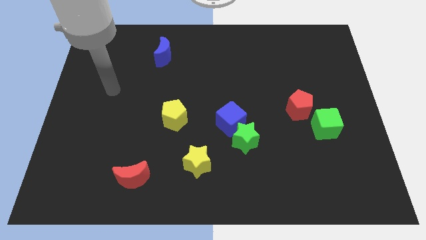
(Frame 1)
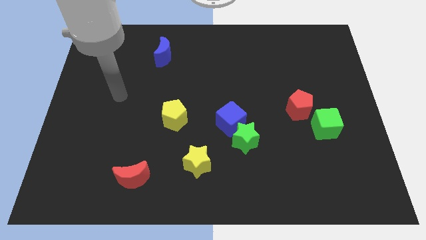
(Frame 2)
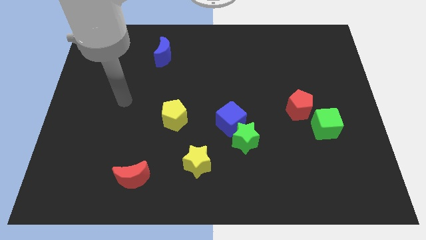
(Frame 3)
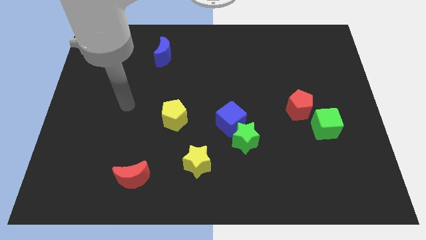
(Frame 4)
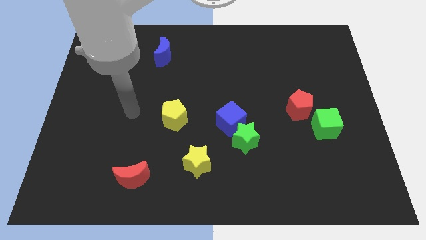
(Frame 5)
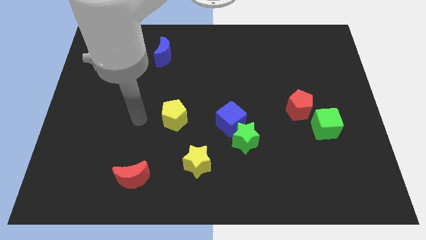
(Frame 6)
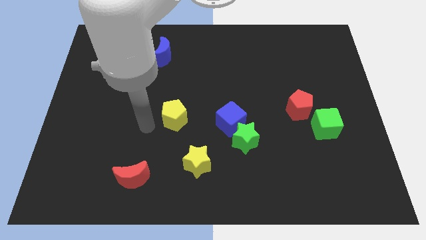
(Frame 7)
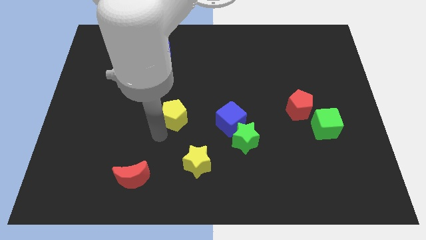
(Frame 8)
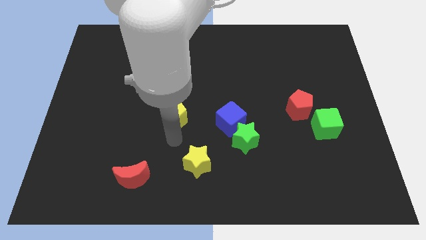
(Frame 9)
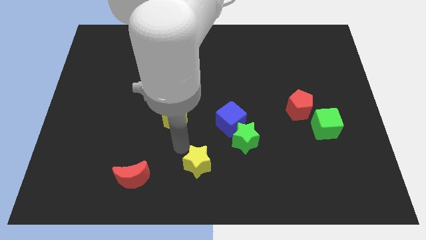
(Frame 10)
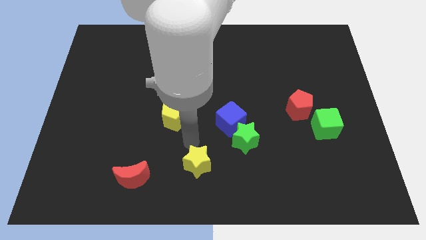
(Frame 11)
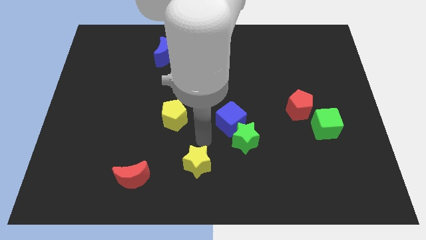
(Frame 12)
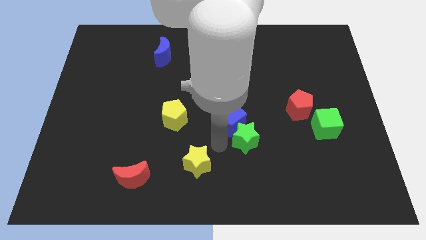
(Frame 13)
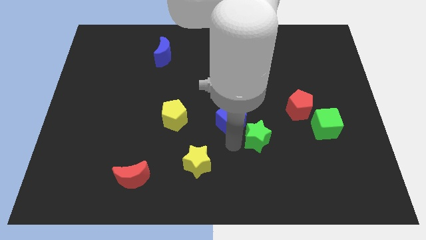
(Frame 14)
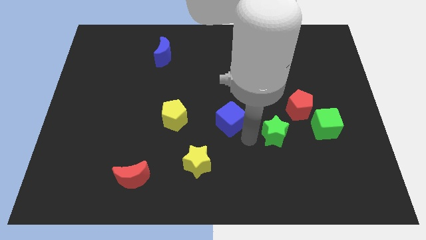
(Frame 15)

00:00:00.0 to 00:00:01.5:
pull the blue cube apart from the green star

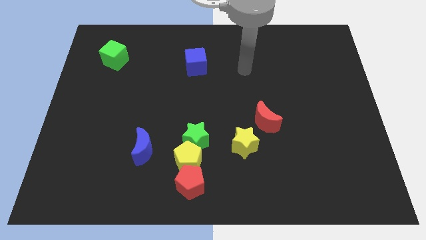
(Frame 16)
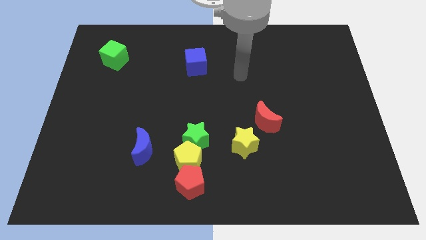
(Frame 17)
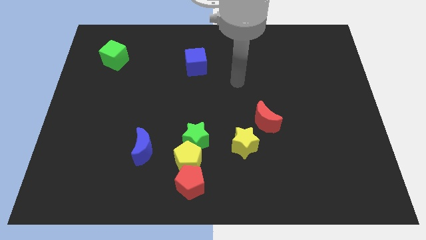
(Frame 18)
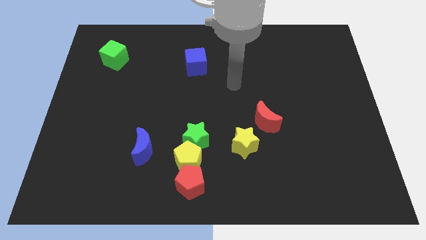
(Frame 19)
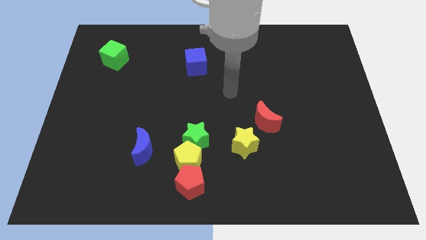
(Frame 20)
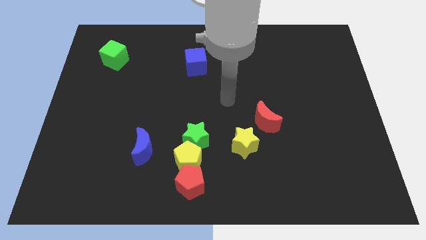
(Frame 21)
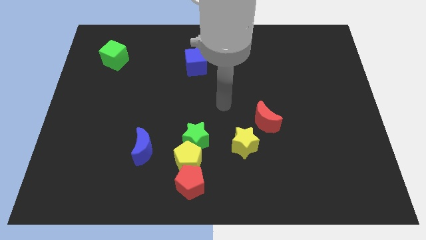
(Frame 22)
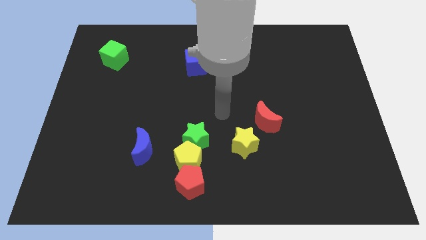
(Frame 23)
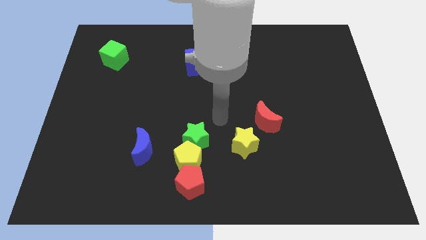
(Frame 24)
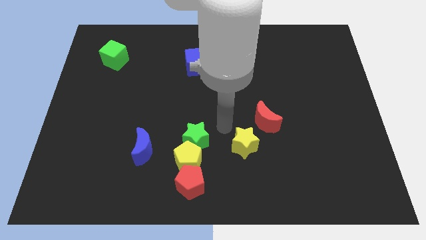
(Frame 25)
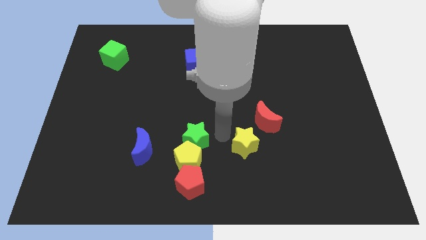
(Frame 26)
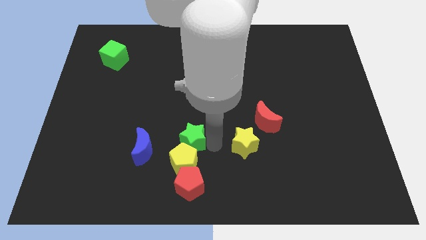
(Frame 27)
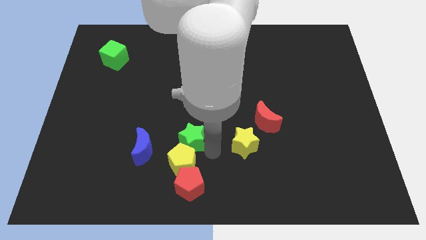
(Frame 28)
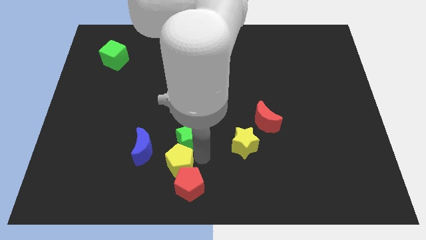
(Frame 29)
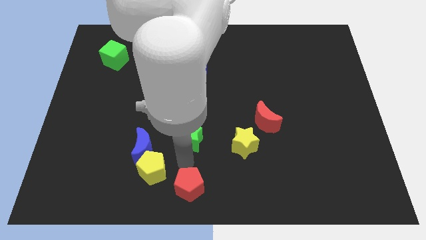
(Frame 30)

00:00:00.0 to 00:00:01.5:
pull the green star apart from the yellow pentagon

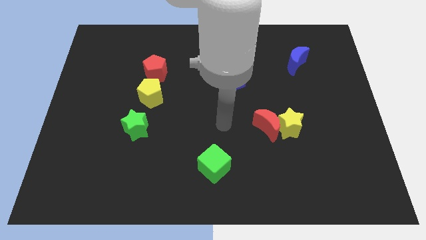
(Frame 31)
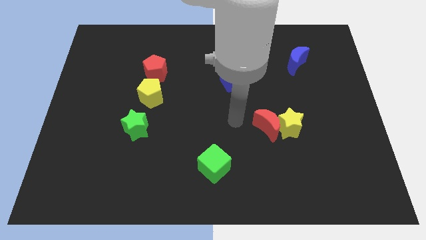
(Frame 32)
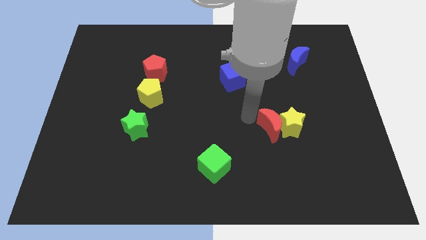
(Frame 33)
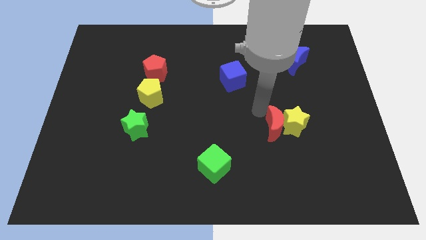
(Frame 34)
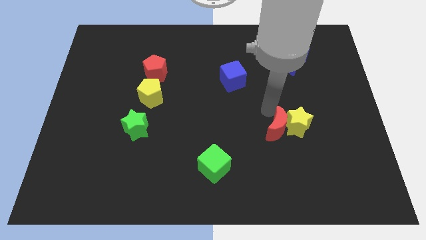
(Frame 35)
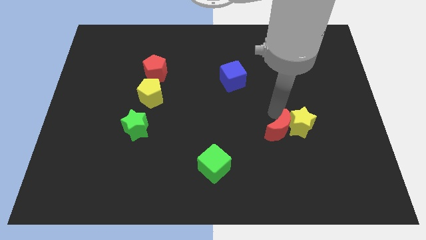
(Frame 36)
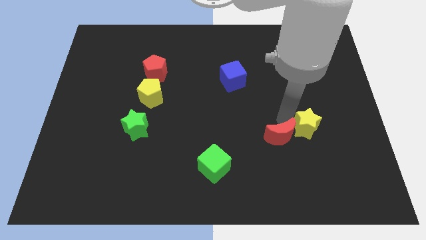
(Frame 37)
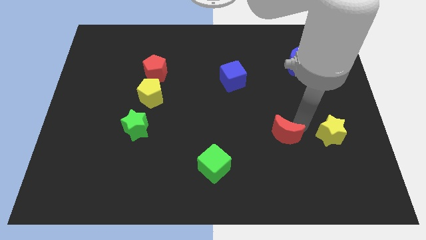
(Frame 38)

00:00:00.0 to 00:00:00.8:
separate the red moon from the yellow star

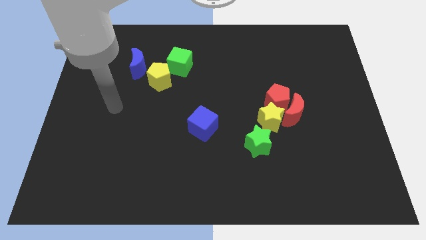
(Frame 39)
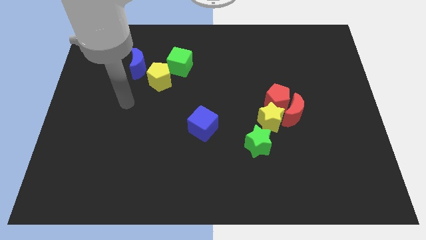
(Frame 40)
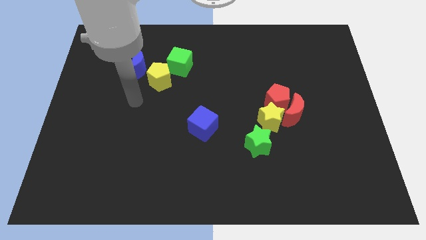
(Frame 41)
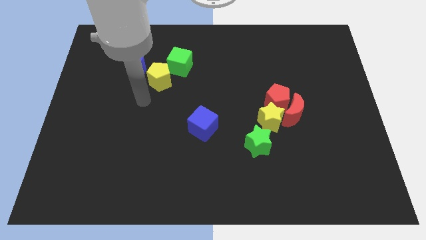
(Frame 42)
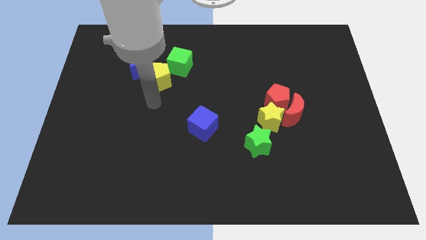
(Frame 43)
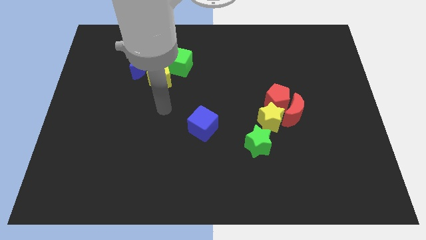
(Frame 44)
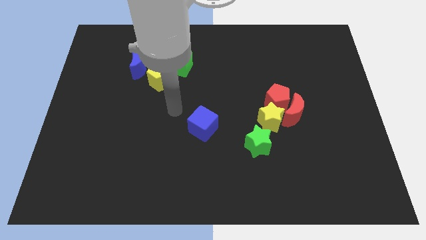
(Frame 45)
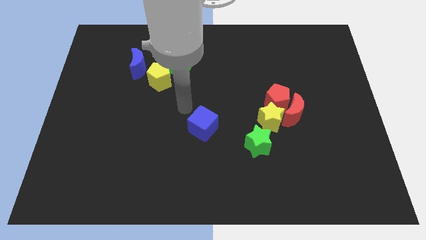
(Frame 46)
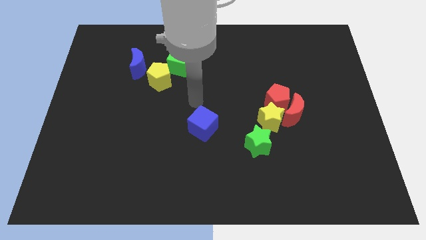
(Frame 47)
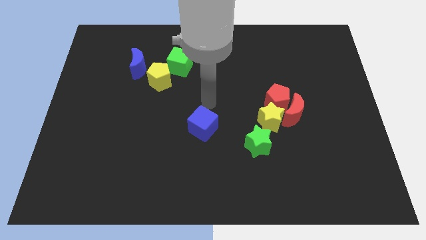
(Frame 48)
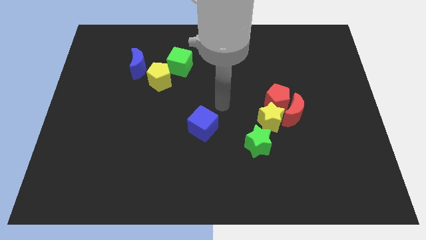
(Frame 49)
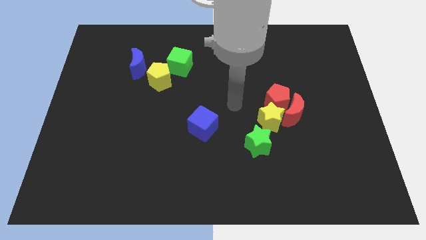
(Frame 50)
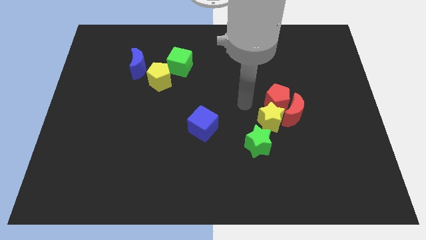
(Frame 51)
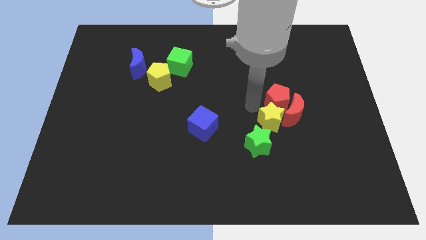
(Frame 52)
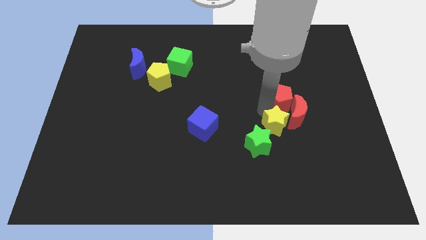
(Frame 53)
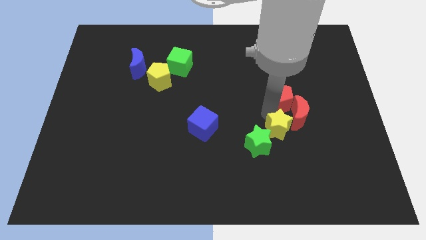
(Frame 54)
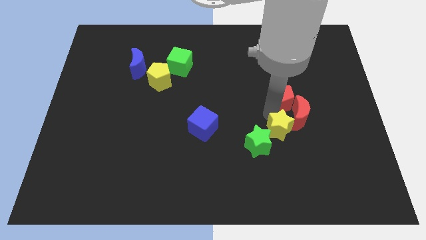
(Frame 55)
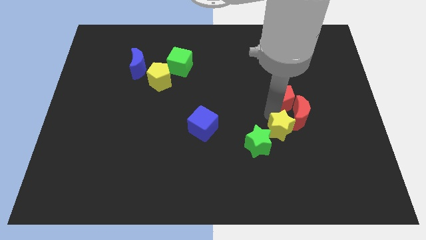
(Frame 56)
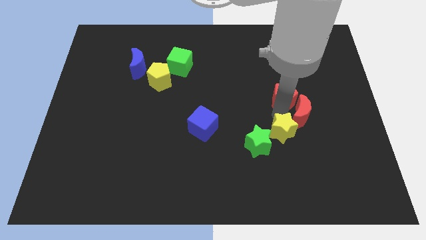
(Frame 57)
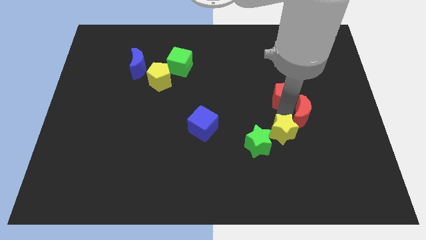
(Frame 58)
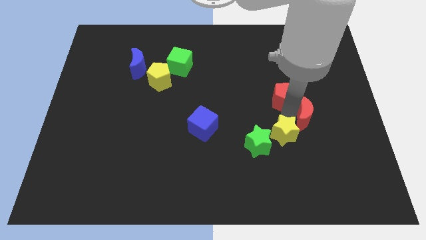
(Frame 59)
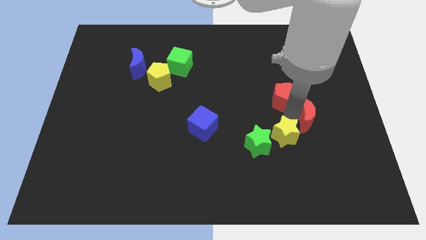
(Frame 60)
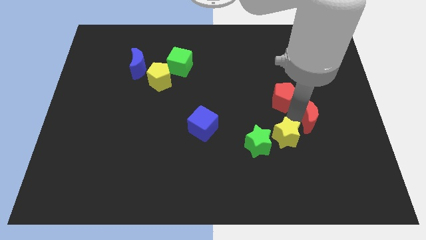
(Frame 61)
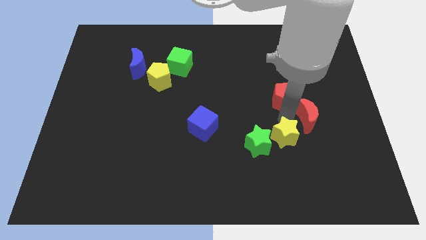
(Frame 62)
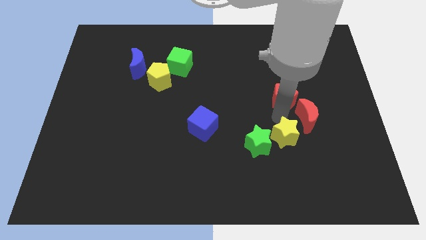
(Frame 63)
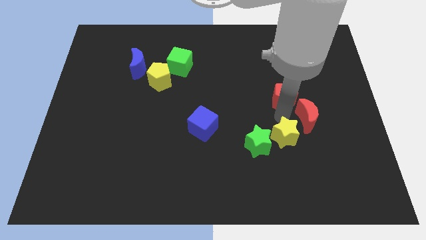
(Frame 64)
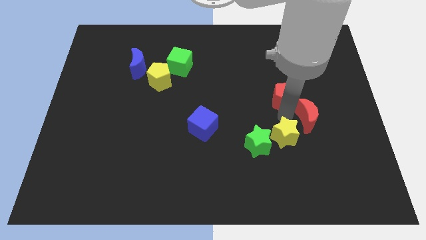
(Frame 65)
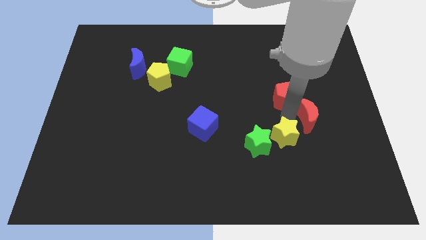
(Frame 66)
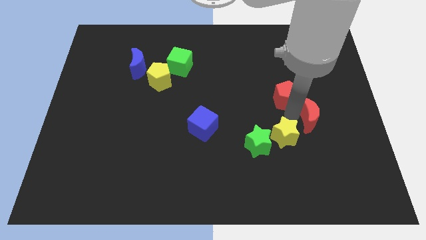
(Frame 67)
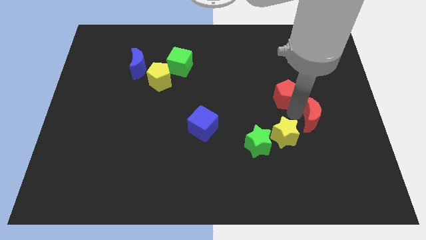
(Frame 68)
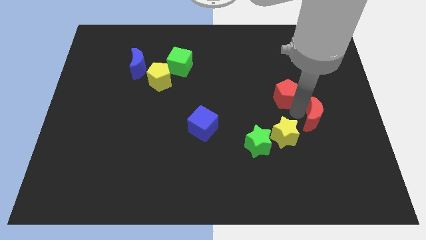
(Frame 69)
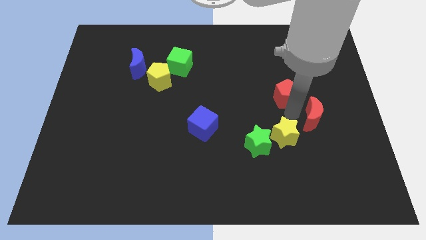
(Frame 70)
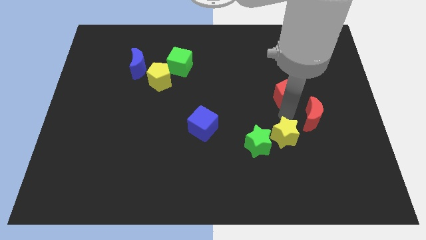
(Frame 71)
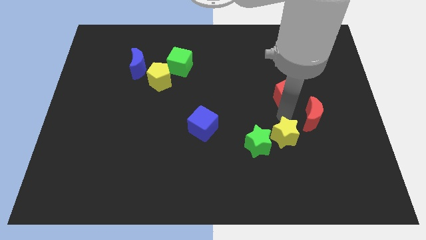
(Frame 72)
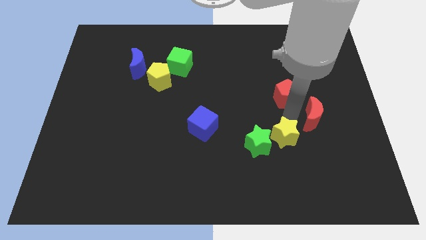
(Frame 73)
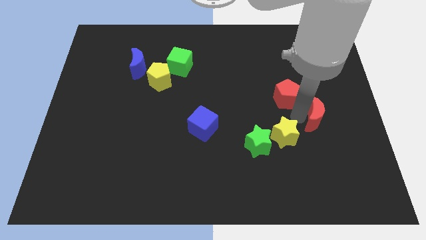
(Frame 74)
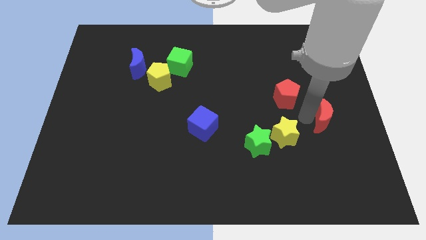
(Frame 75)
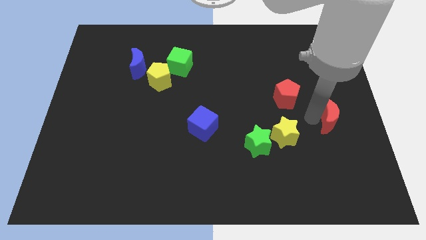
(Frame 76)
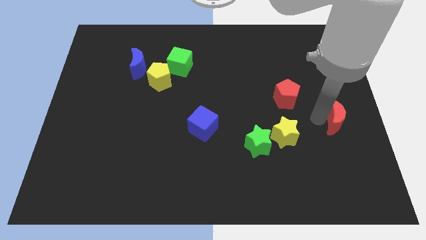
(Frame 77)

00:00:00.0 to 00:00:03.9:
move the red moon away from the red pentagon and yellow star

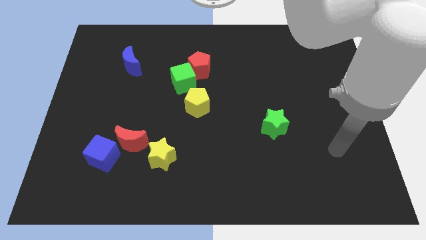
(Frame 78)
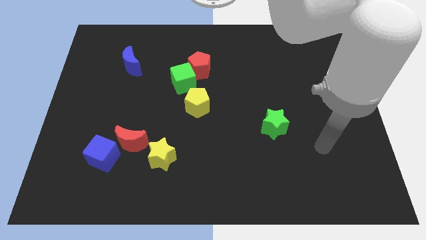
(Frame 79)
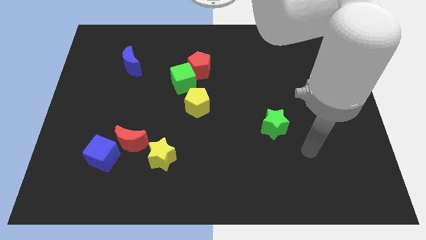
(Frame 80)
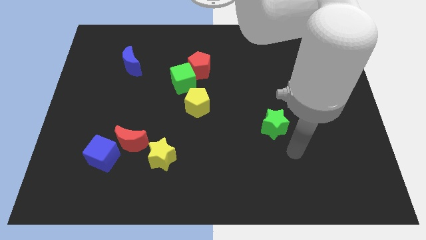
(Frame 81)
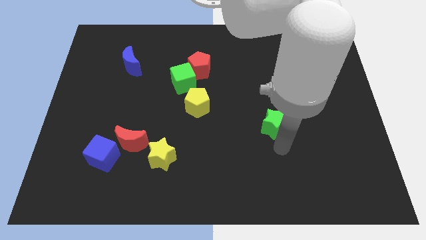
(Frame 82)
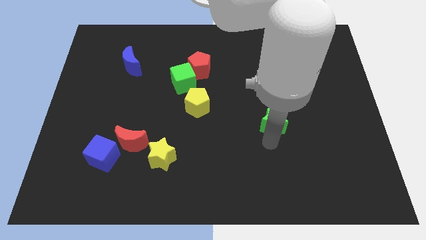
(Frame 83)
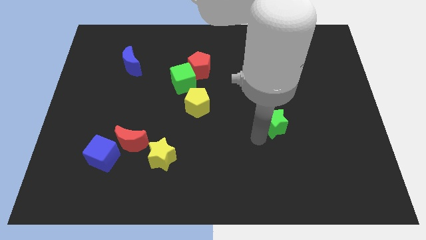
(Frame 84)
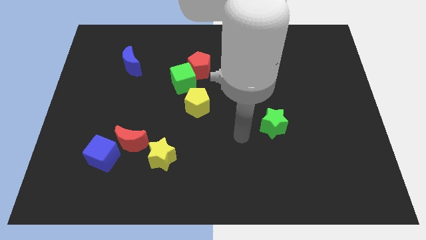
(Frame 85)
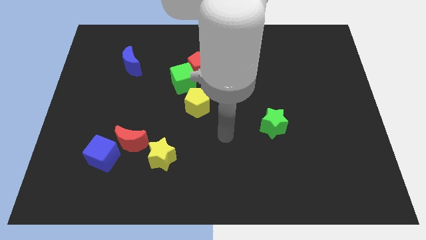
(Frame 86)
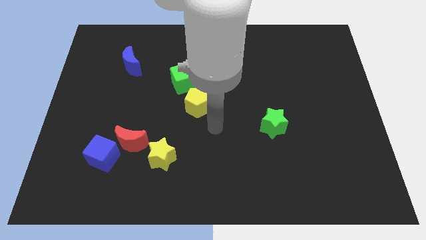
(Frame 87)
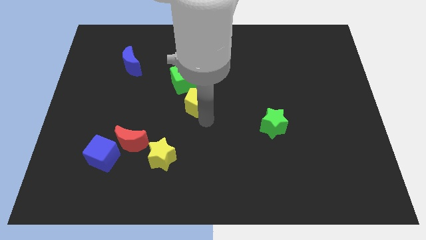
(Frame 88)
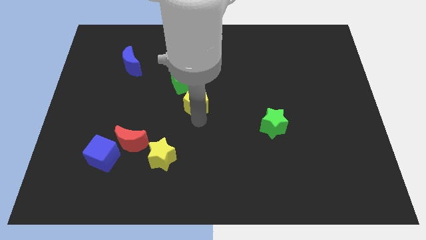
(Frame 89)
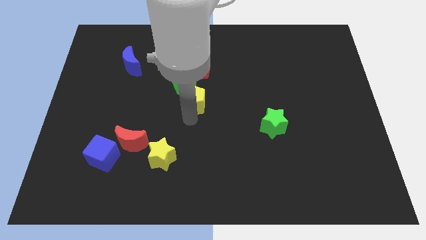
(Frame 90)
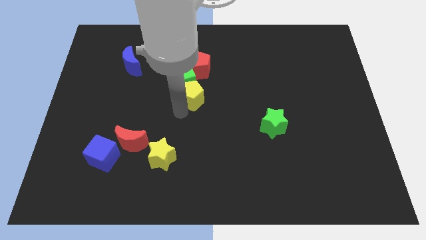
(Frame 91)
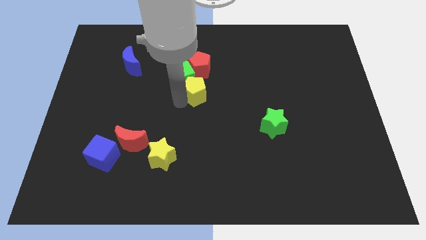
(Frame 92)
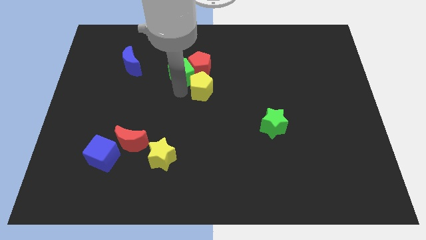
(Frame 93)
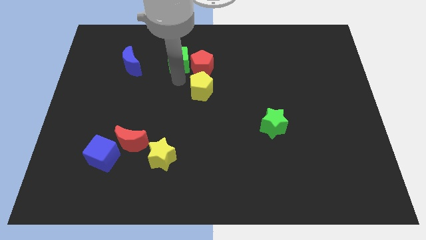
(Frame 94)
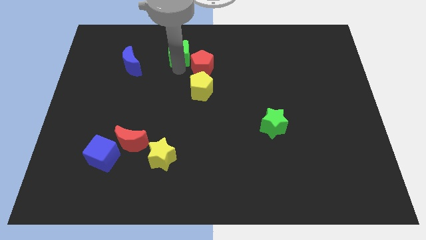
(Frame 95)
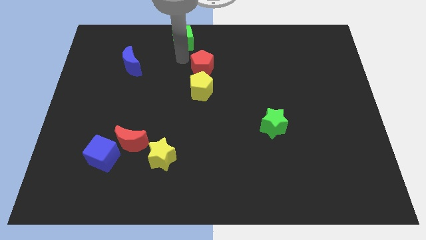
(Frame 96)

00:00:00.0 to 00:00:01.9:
move the red pentagon away from the green cube
